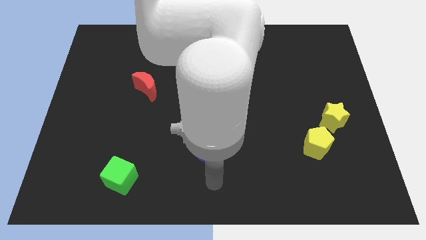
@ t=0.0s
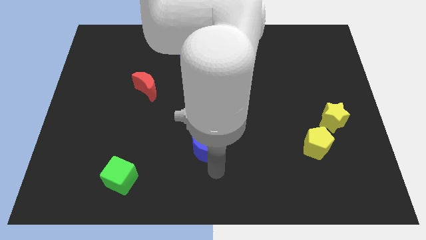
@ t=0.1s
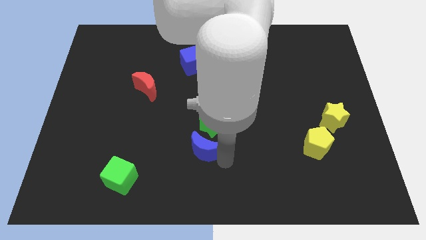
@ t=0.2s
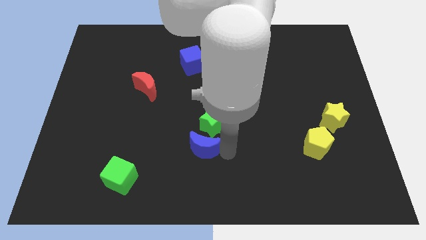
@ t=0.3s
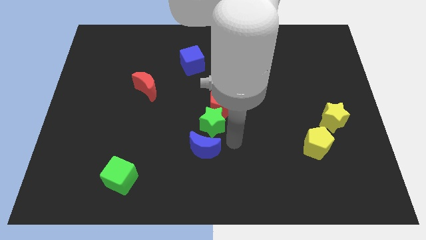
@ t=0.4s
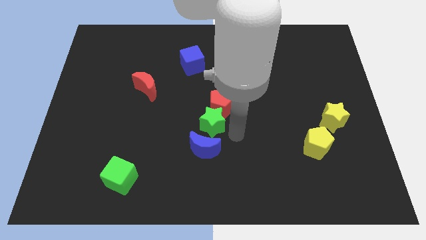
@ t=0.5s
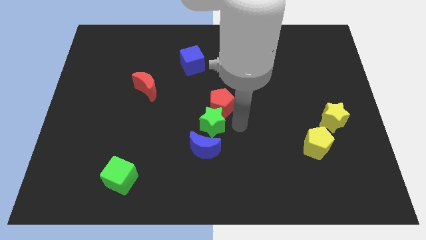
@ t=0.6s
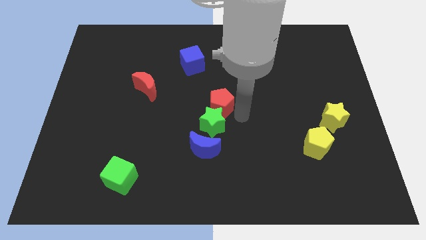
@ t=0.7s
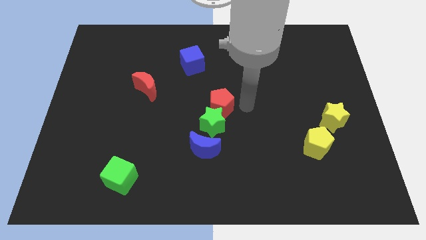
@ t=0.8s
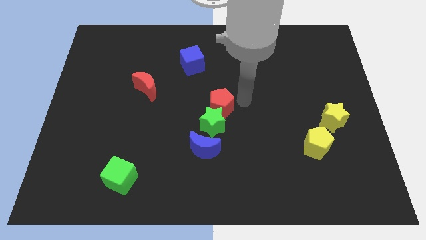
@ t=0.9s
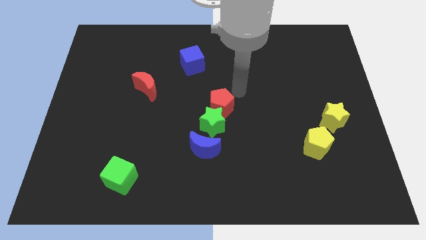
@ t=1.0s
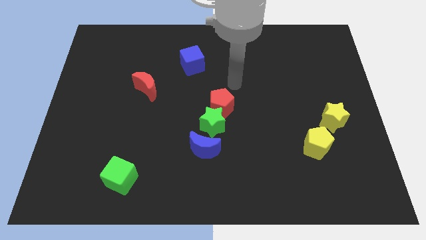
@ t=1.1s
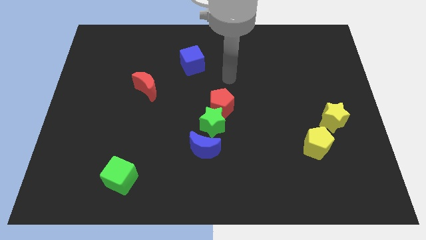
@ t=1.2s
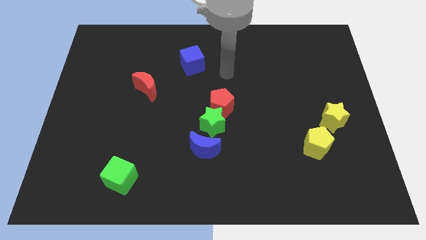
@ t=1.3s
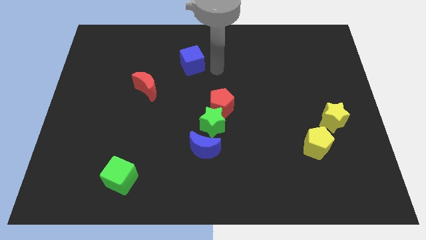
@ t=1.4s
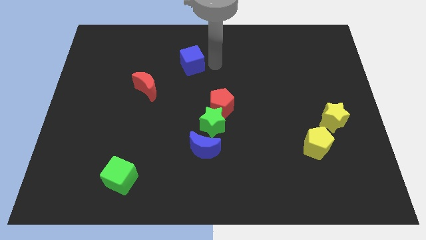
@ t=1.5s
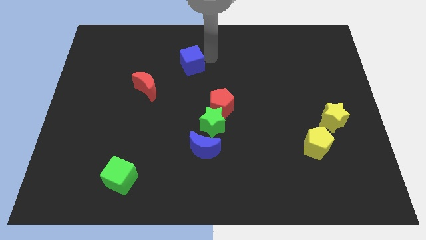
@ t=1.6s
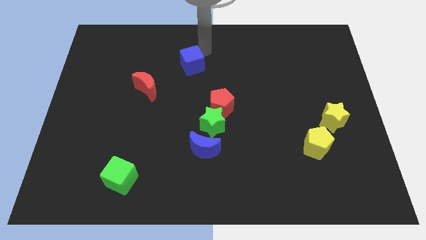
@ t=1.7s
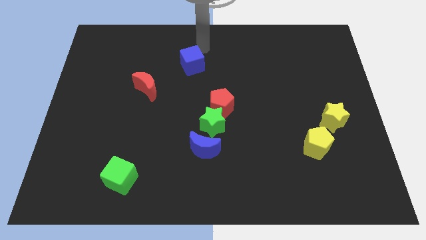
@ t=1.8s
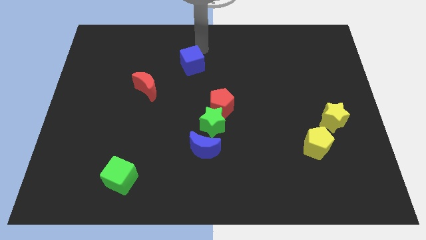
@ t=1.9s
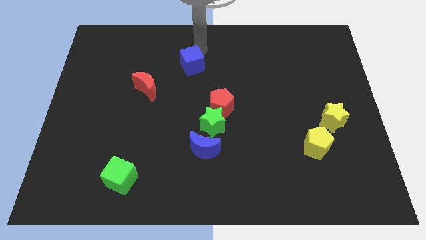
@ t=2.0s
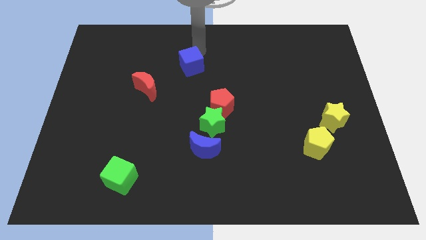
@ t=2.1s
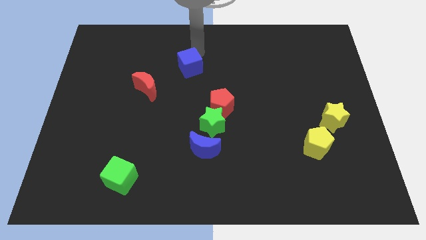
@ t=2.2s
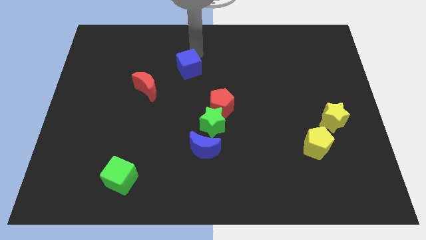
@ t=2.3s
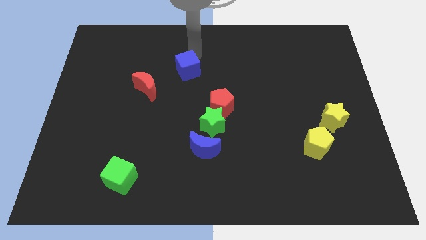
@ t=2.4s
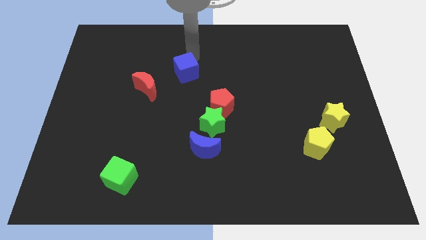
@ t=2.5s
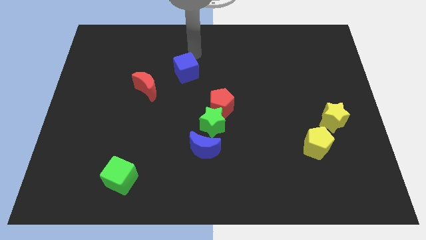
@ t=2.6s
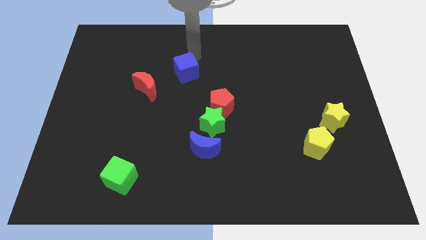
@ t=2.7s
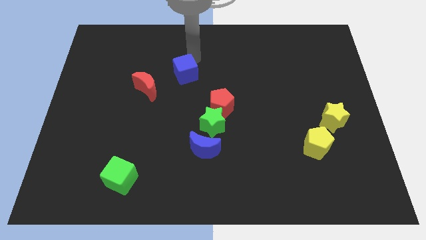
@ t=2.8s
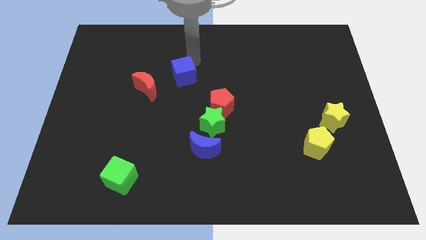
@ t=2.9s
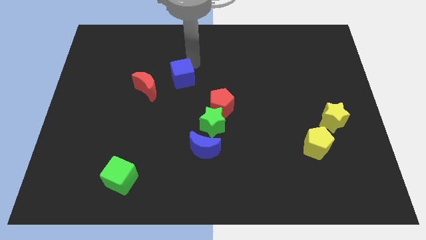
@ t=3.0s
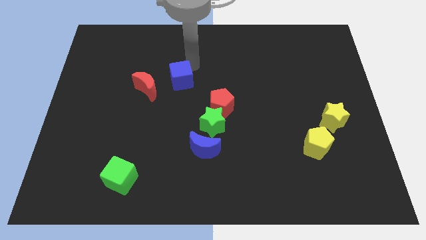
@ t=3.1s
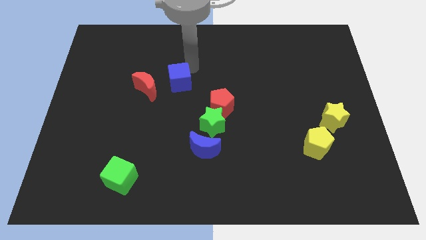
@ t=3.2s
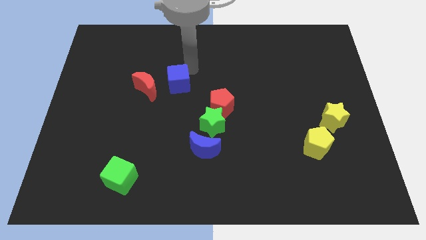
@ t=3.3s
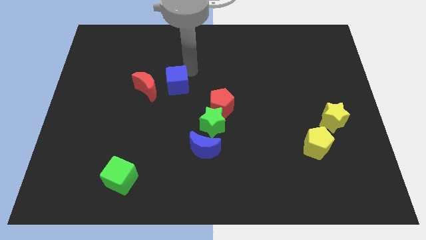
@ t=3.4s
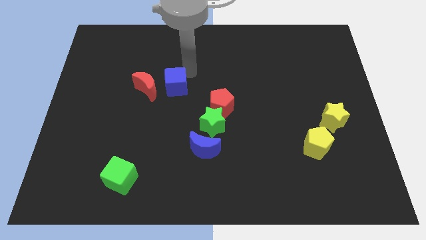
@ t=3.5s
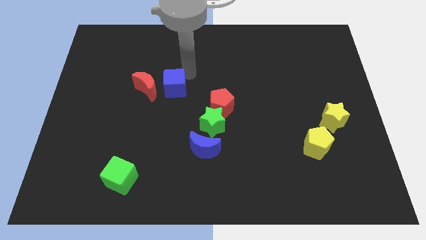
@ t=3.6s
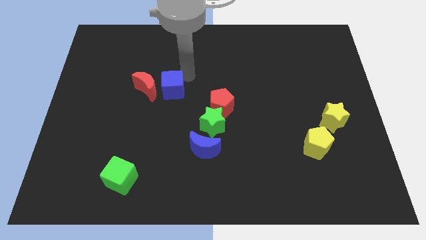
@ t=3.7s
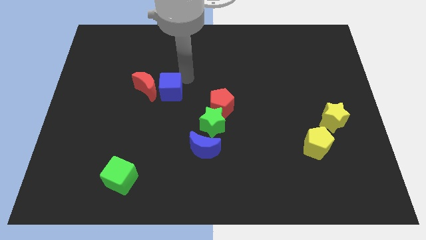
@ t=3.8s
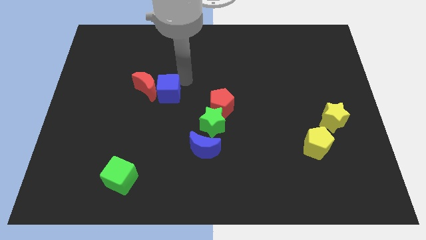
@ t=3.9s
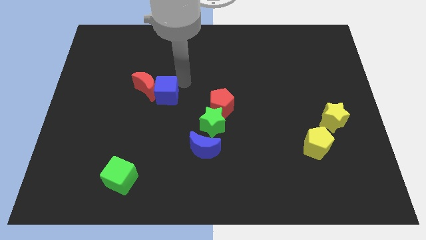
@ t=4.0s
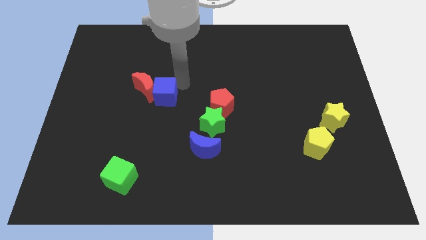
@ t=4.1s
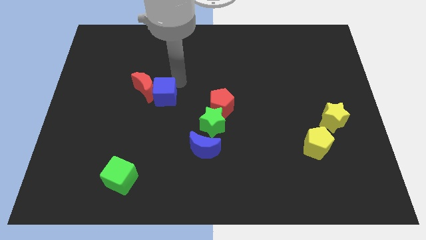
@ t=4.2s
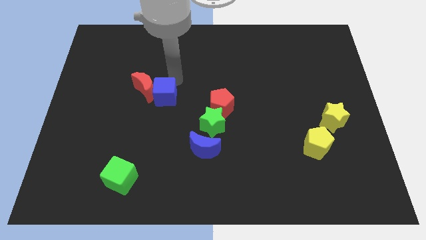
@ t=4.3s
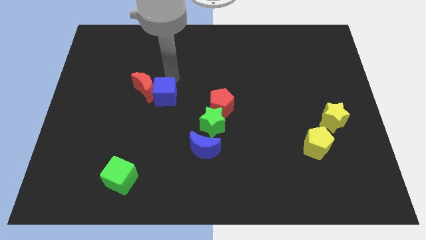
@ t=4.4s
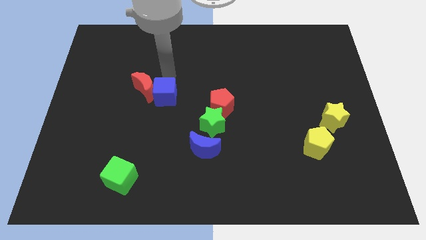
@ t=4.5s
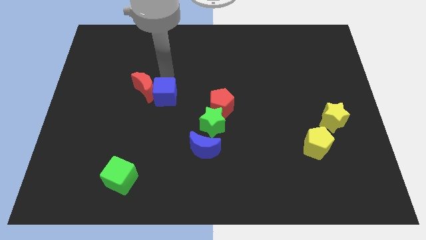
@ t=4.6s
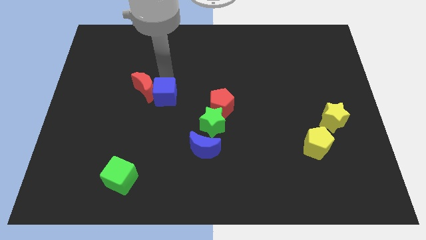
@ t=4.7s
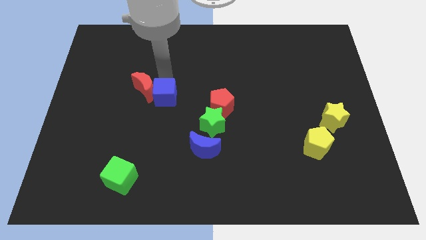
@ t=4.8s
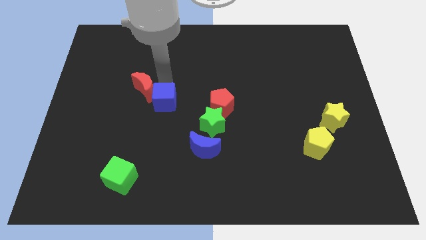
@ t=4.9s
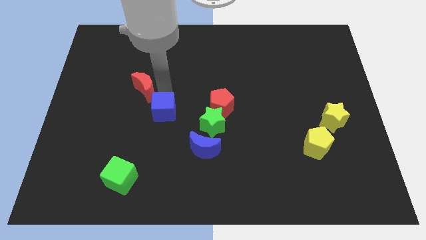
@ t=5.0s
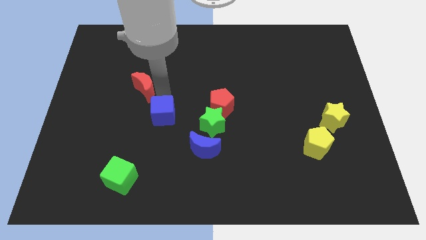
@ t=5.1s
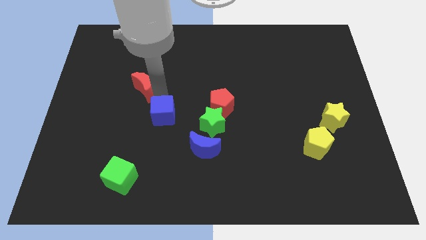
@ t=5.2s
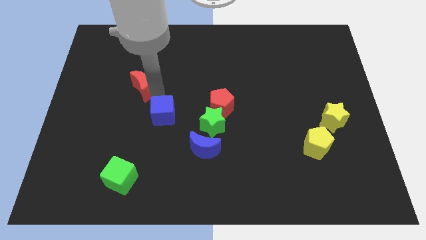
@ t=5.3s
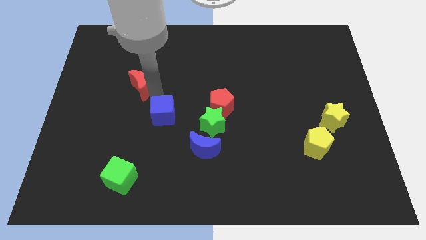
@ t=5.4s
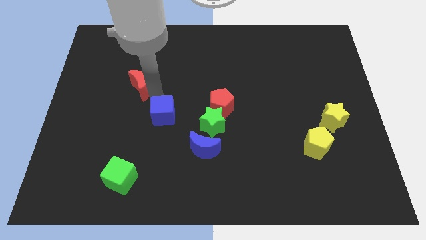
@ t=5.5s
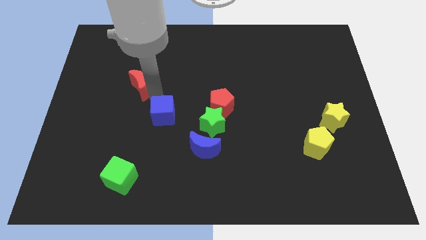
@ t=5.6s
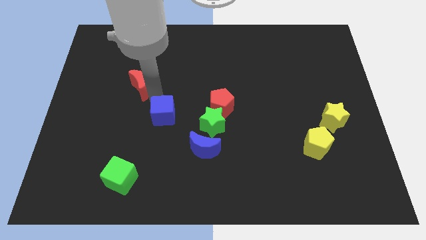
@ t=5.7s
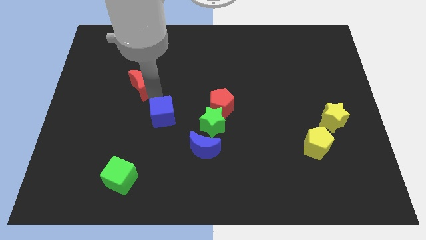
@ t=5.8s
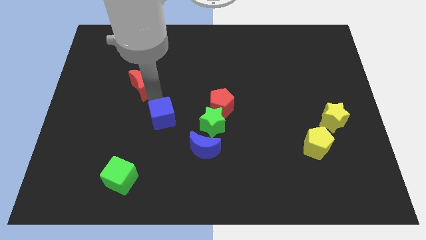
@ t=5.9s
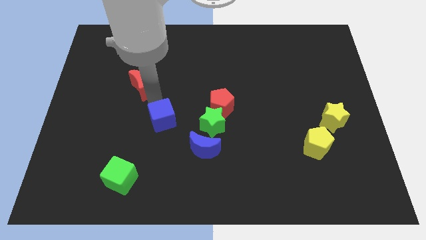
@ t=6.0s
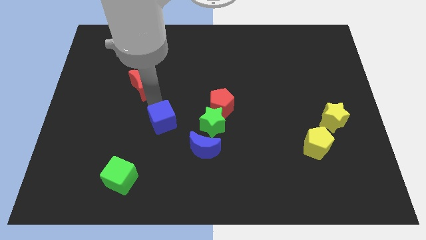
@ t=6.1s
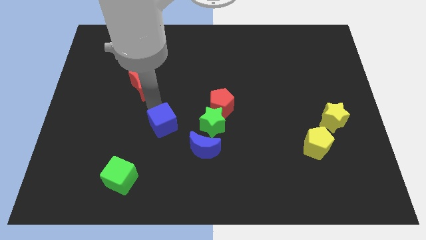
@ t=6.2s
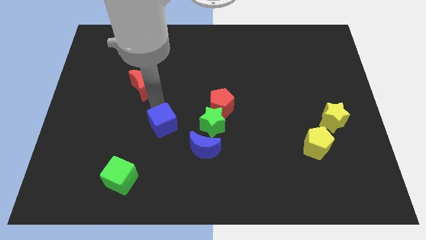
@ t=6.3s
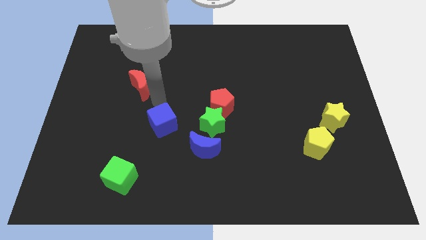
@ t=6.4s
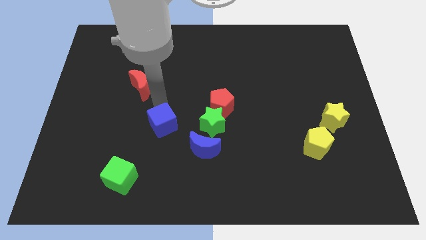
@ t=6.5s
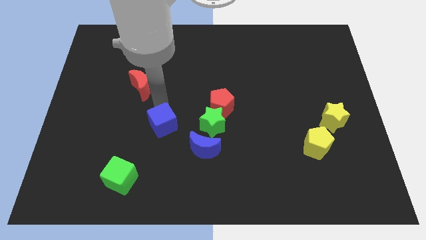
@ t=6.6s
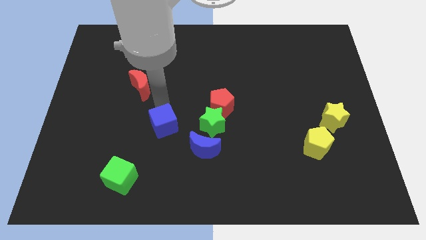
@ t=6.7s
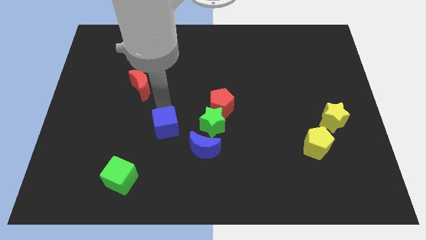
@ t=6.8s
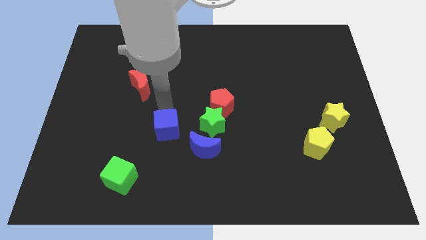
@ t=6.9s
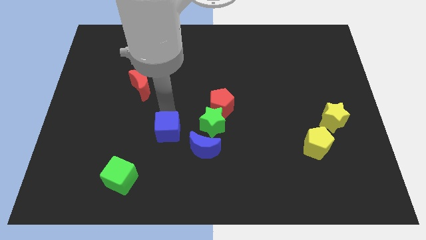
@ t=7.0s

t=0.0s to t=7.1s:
move the blue cube downwards

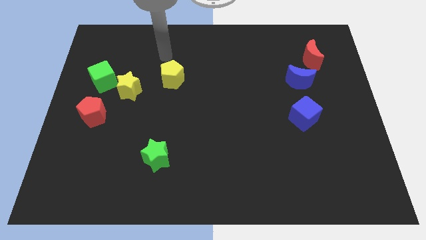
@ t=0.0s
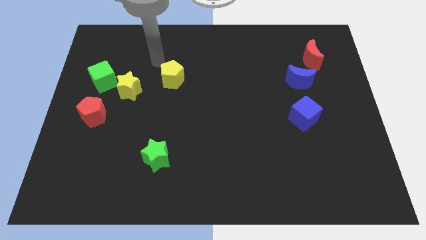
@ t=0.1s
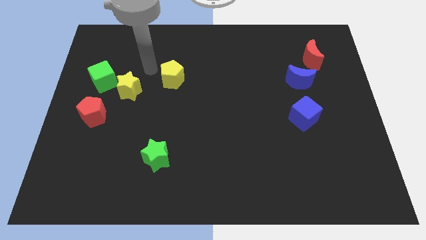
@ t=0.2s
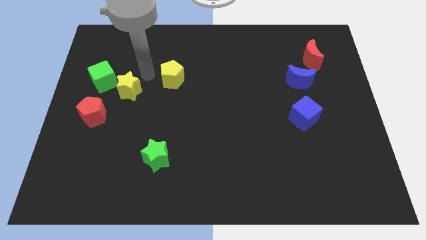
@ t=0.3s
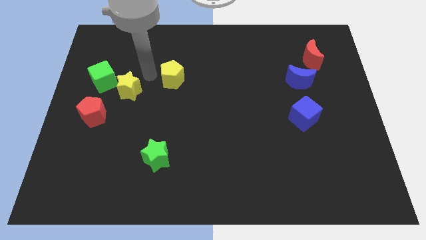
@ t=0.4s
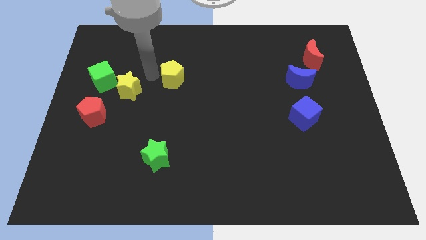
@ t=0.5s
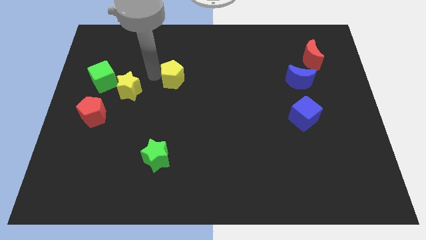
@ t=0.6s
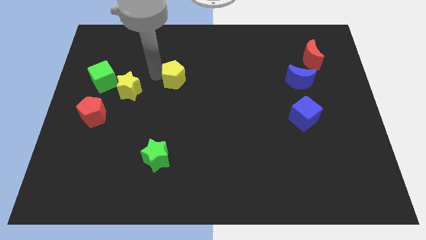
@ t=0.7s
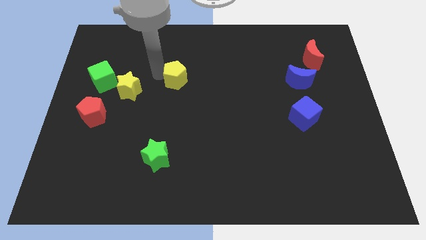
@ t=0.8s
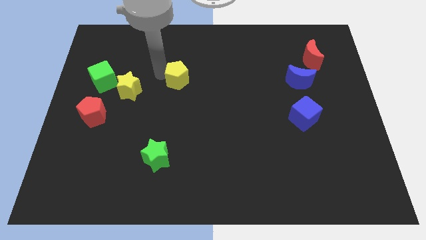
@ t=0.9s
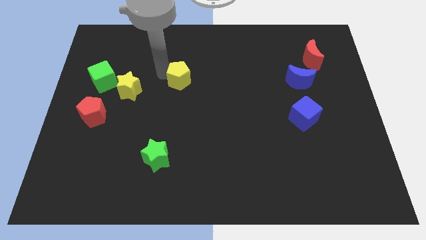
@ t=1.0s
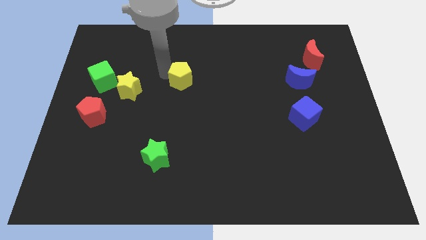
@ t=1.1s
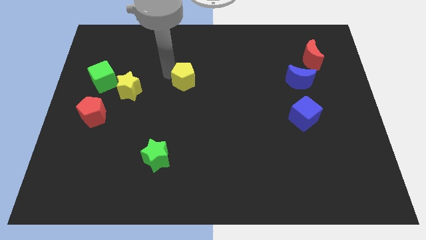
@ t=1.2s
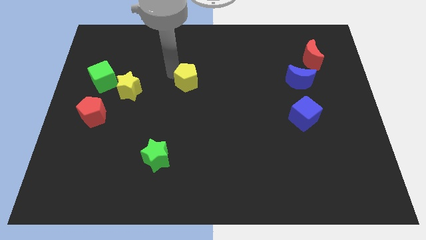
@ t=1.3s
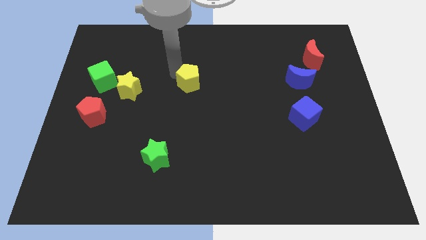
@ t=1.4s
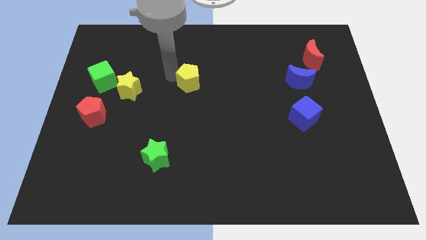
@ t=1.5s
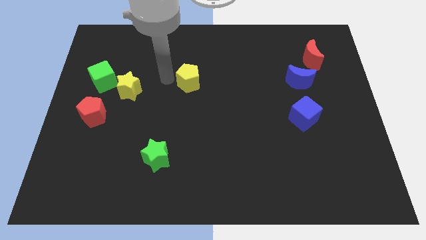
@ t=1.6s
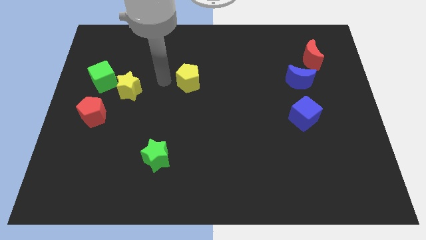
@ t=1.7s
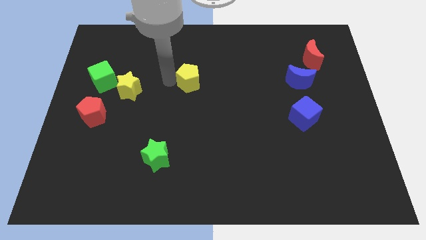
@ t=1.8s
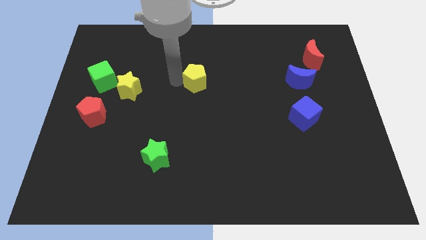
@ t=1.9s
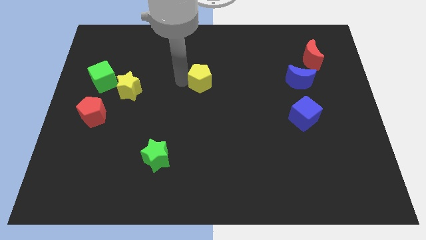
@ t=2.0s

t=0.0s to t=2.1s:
slightly push the yellow pentagon to the right
